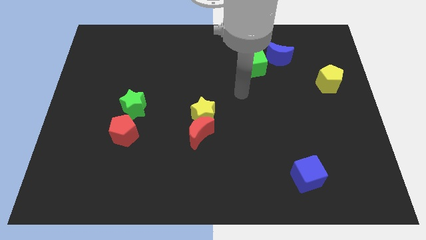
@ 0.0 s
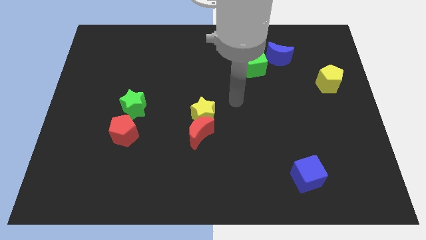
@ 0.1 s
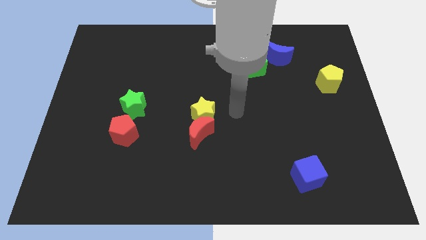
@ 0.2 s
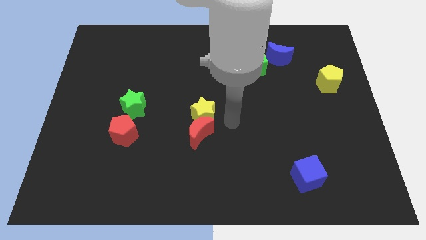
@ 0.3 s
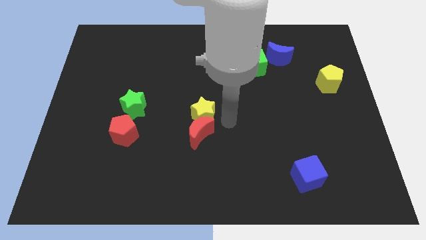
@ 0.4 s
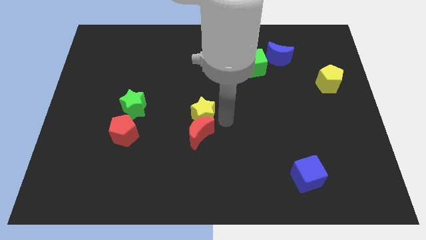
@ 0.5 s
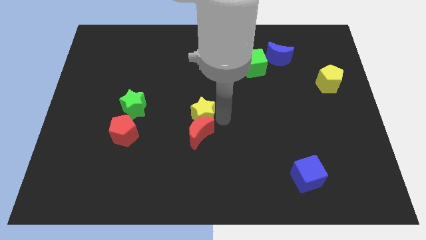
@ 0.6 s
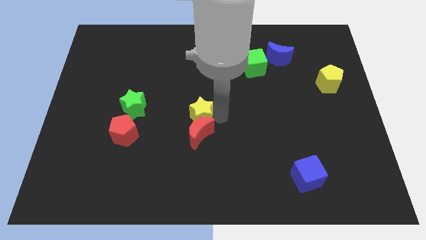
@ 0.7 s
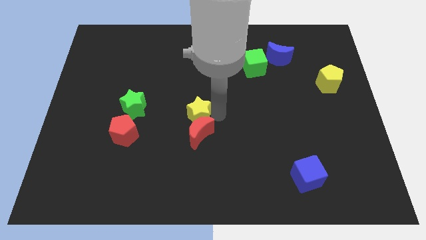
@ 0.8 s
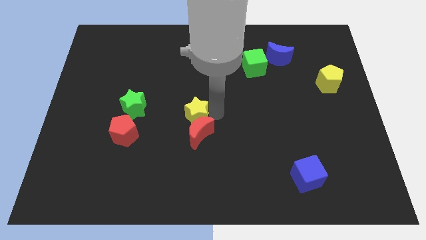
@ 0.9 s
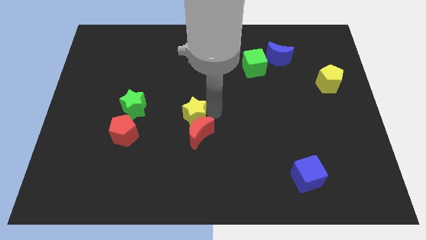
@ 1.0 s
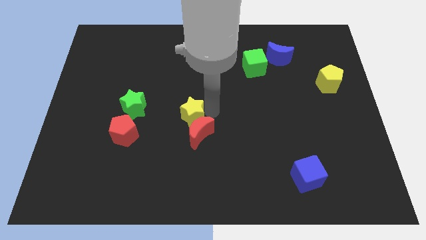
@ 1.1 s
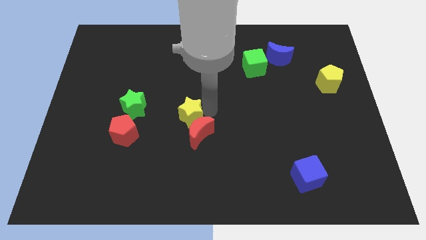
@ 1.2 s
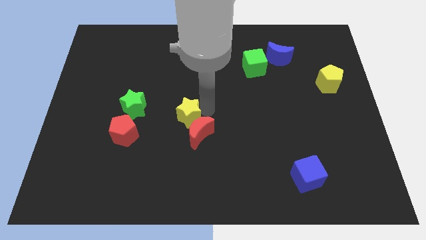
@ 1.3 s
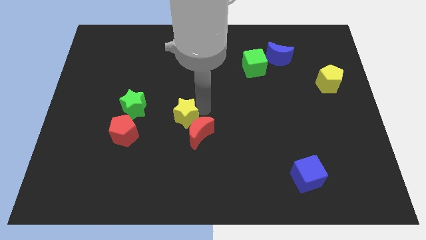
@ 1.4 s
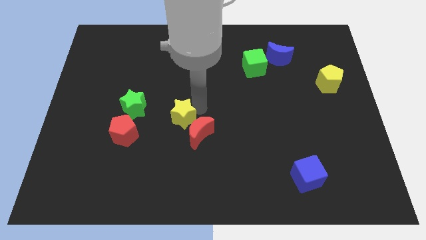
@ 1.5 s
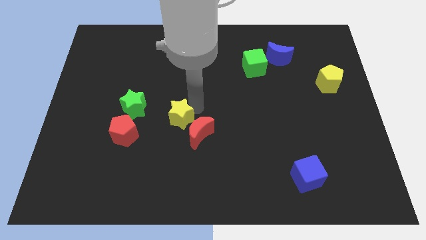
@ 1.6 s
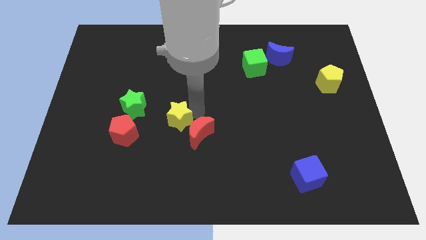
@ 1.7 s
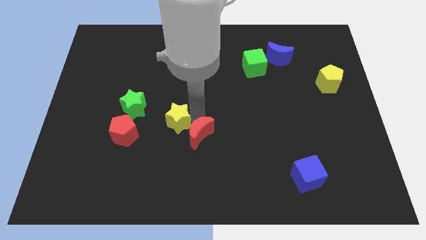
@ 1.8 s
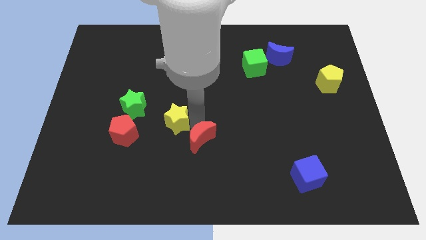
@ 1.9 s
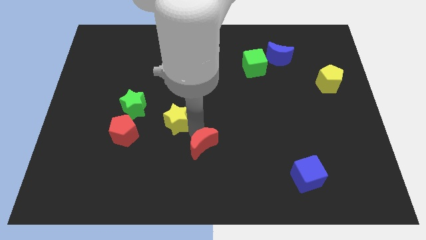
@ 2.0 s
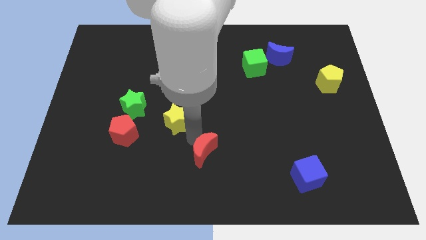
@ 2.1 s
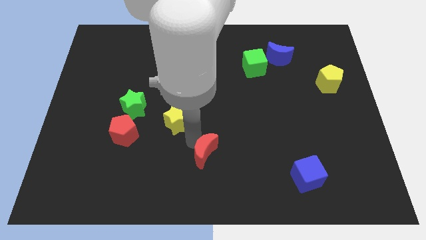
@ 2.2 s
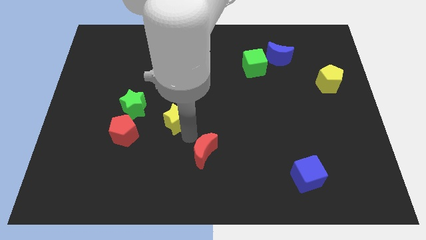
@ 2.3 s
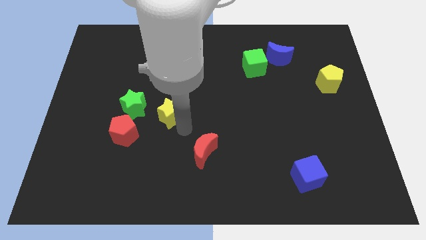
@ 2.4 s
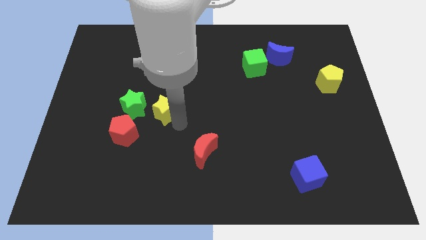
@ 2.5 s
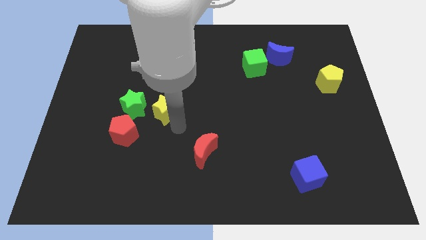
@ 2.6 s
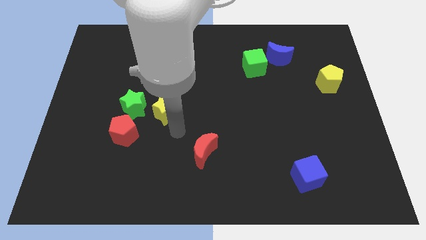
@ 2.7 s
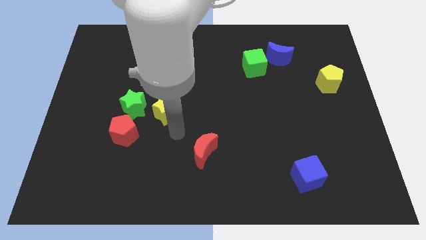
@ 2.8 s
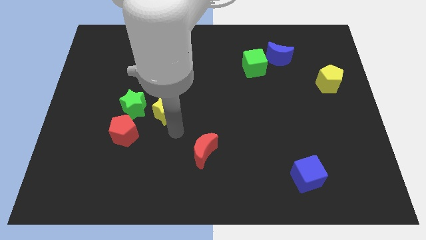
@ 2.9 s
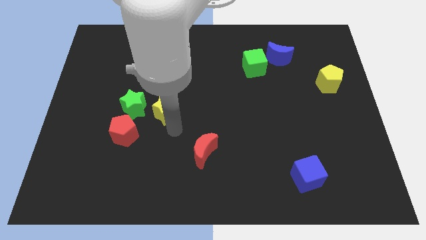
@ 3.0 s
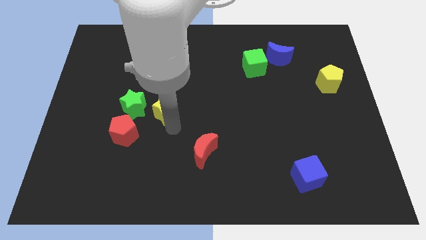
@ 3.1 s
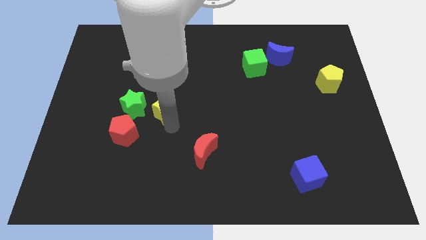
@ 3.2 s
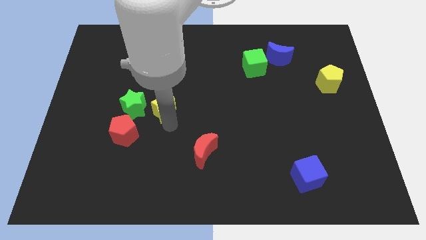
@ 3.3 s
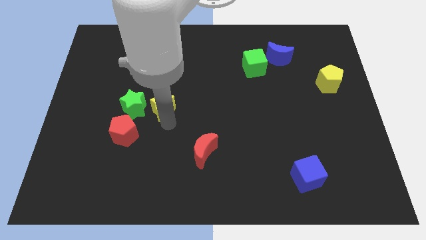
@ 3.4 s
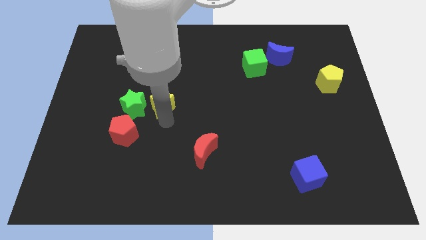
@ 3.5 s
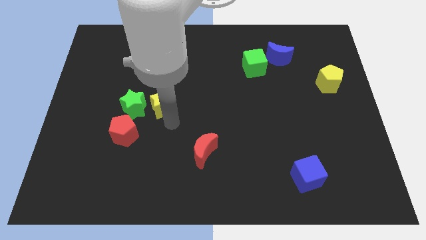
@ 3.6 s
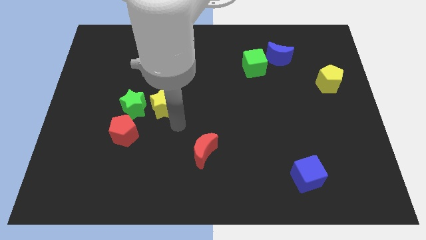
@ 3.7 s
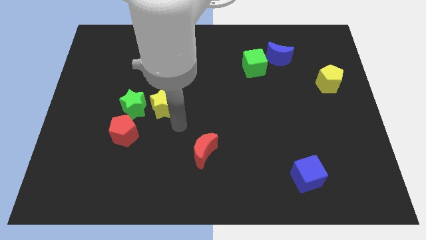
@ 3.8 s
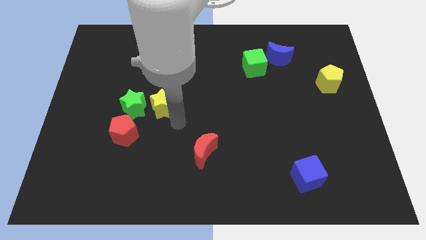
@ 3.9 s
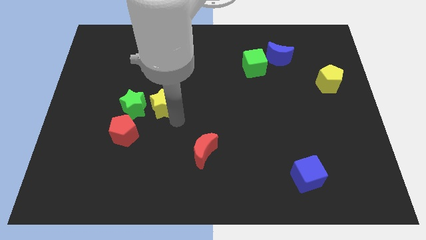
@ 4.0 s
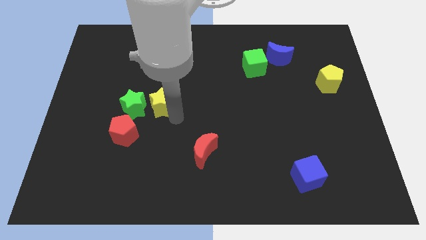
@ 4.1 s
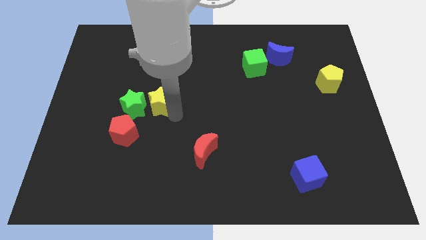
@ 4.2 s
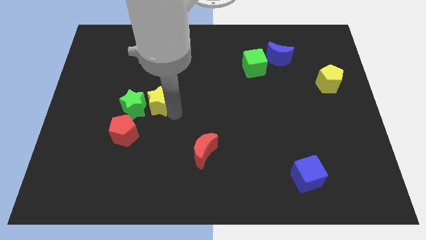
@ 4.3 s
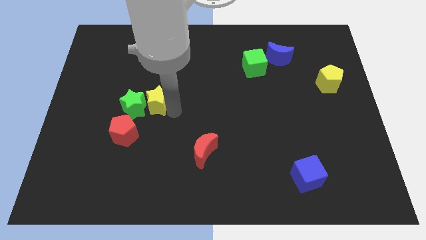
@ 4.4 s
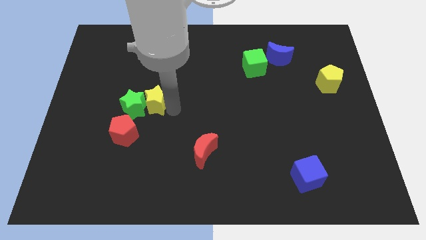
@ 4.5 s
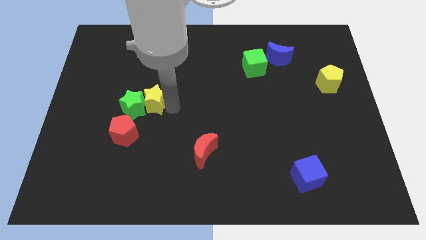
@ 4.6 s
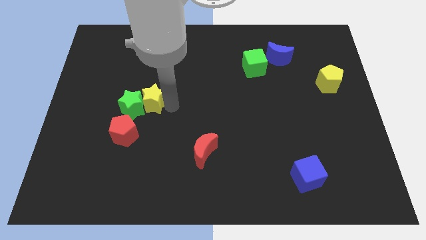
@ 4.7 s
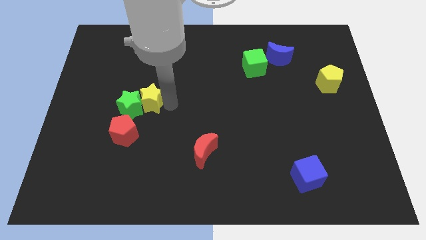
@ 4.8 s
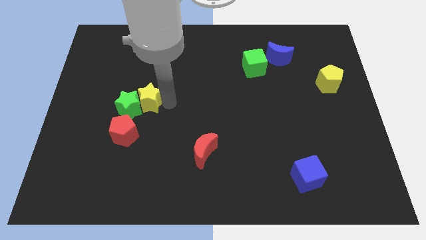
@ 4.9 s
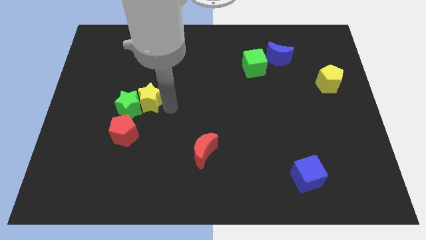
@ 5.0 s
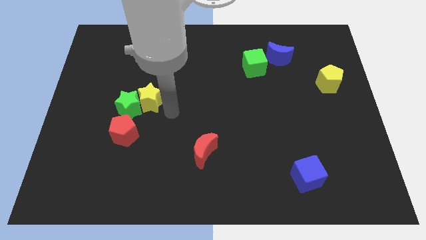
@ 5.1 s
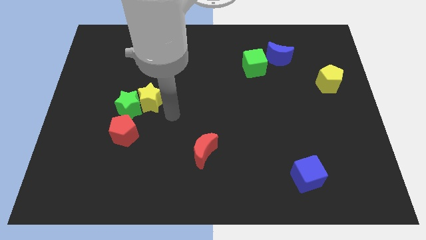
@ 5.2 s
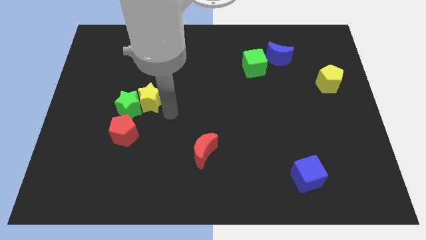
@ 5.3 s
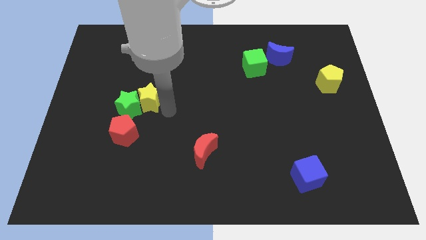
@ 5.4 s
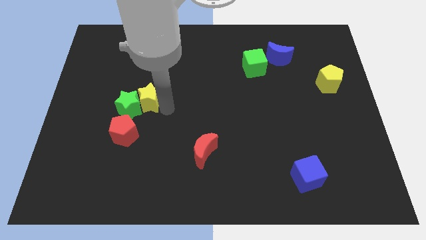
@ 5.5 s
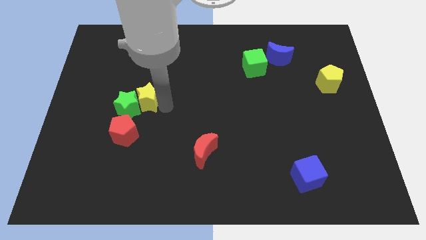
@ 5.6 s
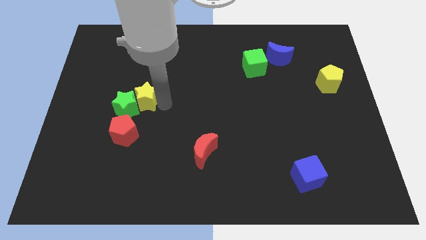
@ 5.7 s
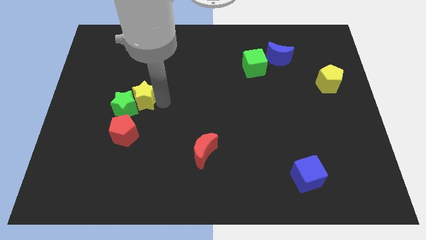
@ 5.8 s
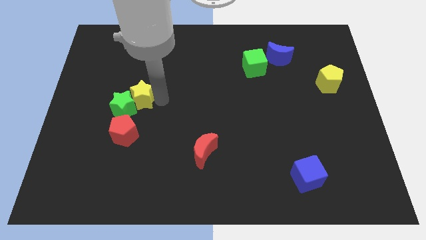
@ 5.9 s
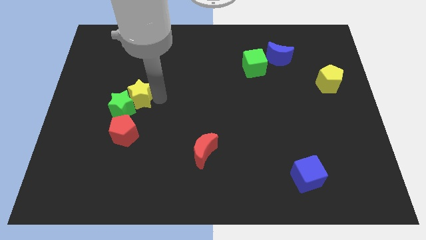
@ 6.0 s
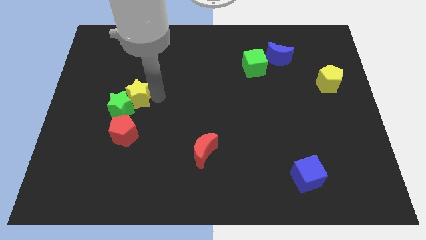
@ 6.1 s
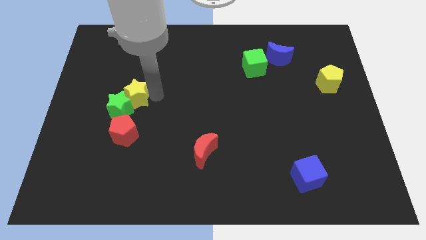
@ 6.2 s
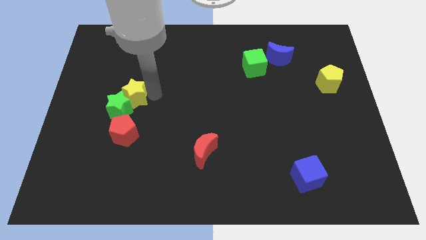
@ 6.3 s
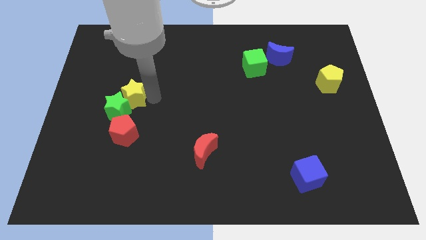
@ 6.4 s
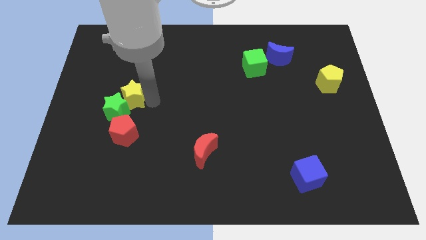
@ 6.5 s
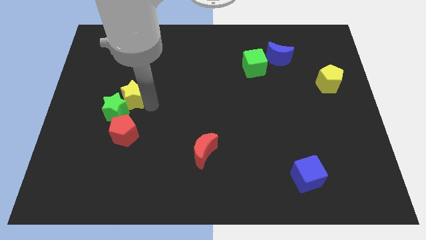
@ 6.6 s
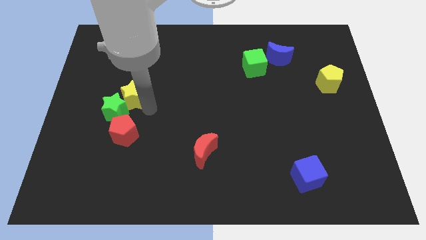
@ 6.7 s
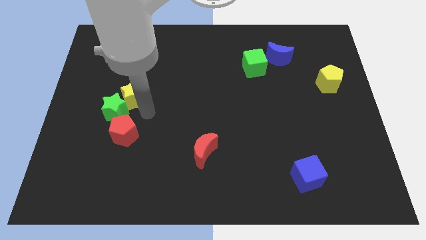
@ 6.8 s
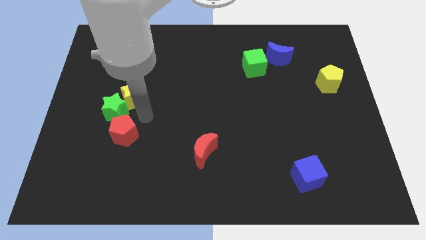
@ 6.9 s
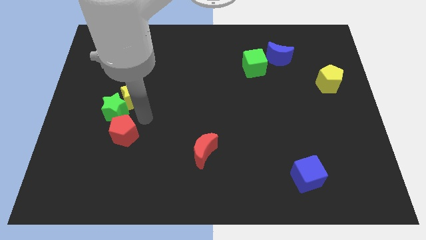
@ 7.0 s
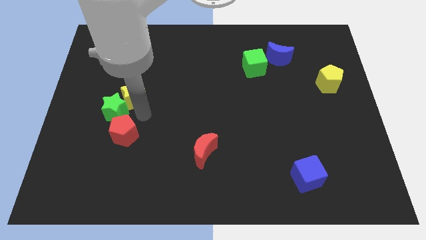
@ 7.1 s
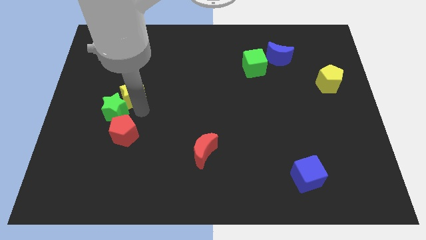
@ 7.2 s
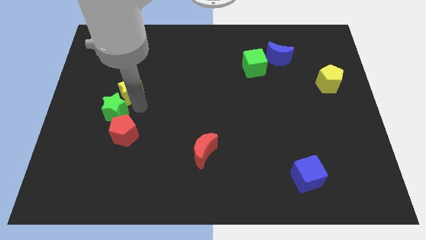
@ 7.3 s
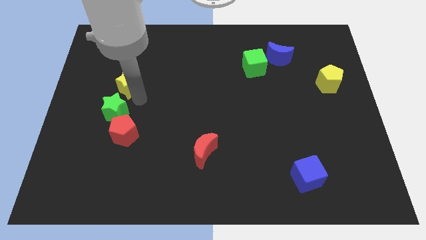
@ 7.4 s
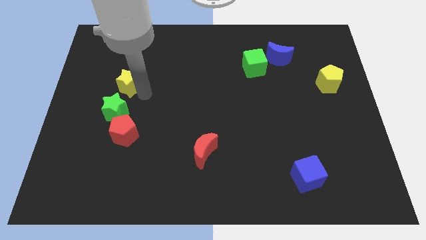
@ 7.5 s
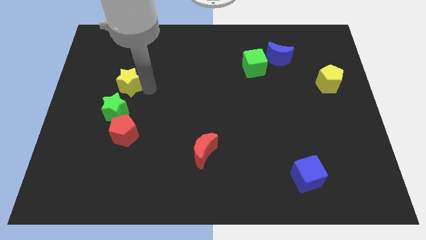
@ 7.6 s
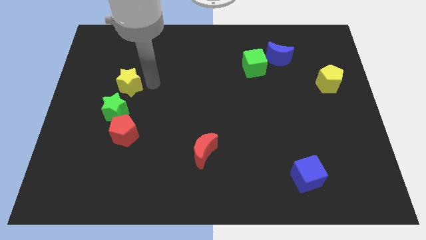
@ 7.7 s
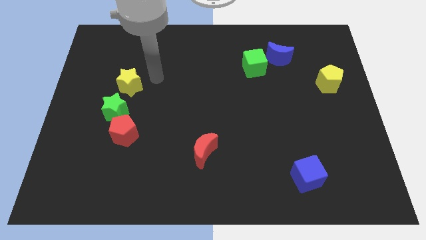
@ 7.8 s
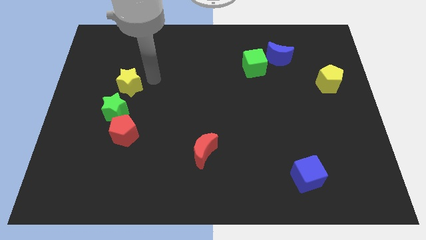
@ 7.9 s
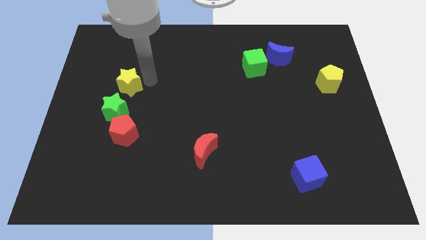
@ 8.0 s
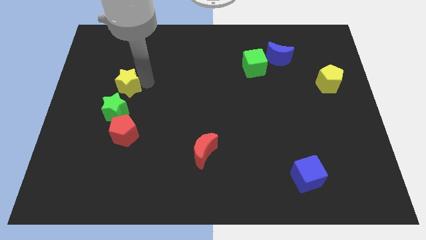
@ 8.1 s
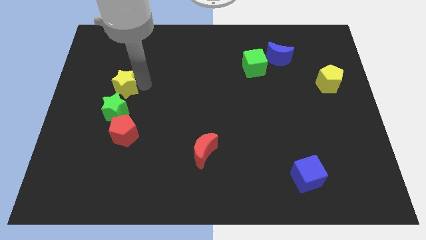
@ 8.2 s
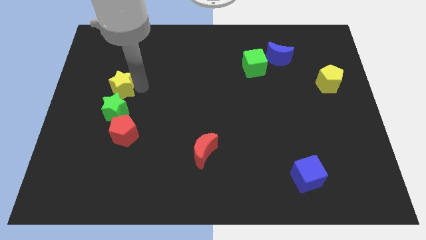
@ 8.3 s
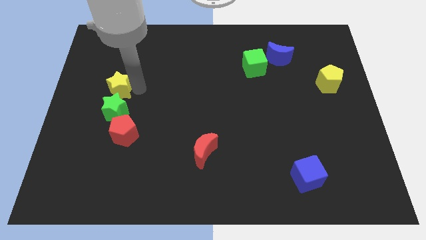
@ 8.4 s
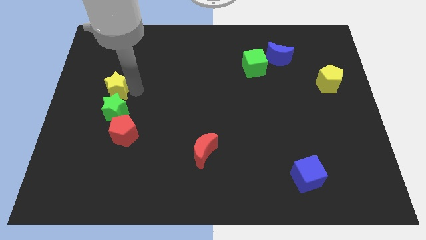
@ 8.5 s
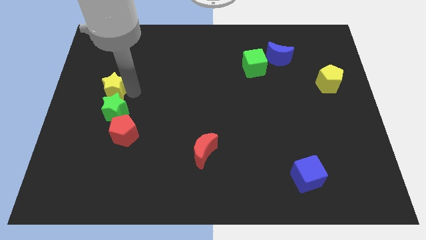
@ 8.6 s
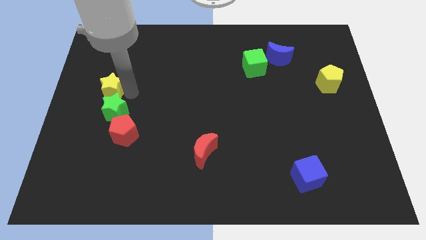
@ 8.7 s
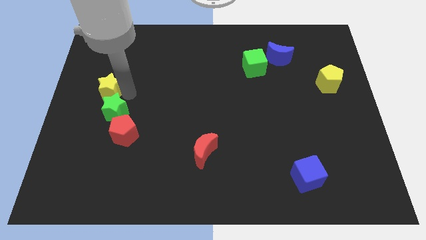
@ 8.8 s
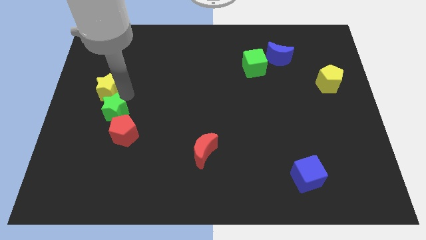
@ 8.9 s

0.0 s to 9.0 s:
put the yellow star to the left side
